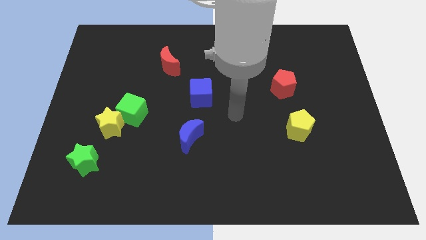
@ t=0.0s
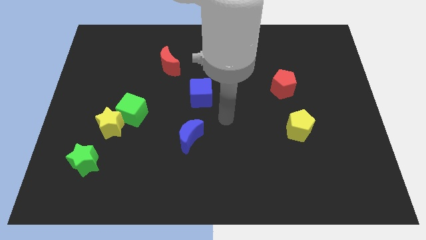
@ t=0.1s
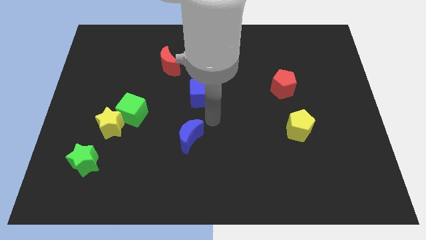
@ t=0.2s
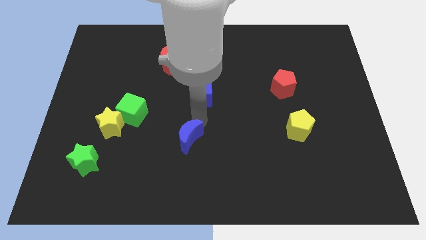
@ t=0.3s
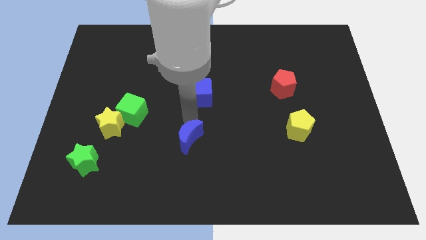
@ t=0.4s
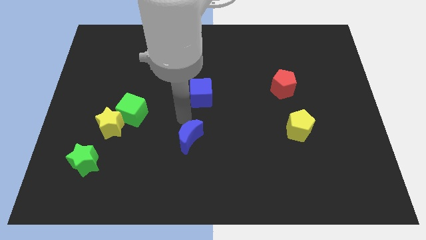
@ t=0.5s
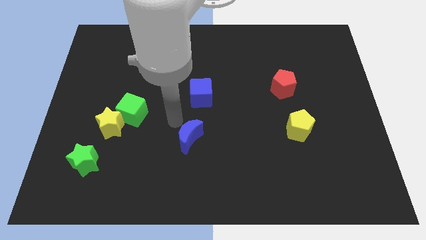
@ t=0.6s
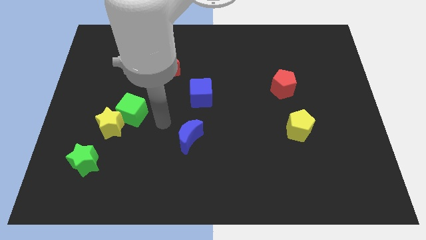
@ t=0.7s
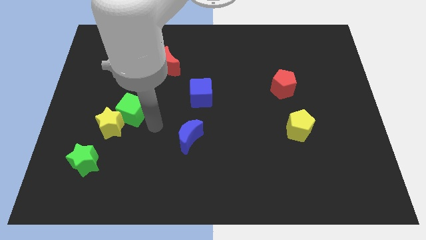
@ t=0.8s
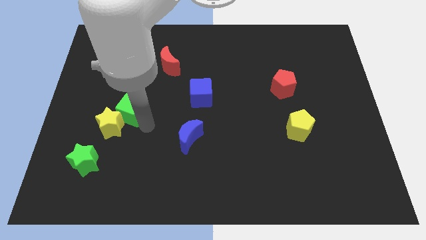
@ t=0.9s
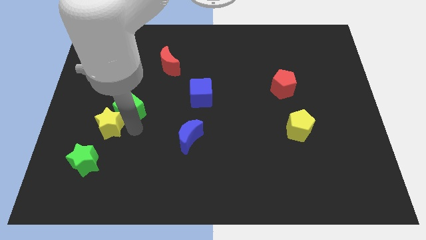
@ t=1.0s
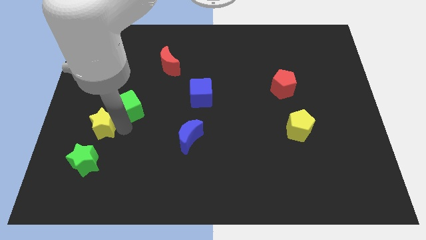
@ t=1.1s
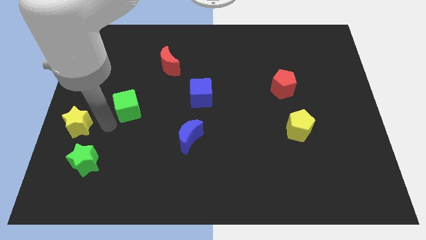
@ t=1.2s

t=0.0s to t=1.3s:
pull the green cube apart from the yellow star

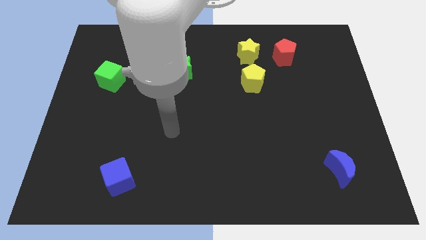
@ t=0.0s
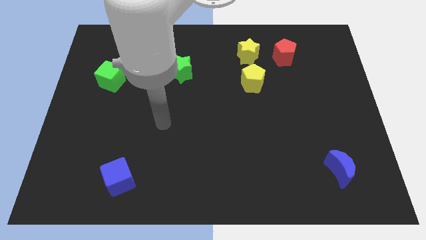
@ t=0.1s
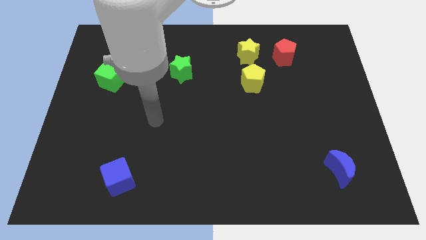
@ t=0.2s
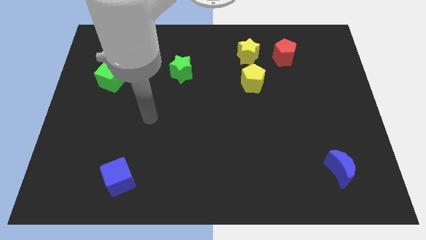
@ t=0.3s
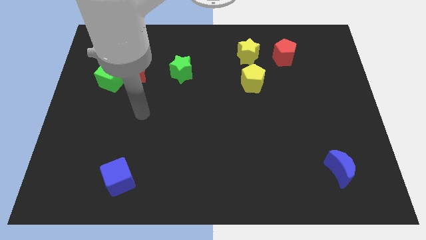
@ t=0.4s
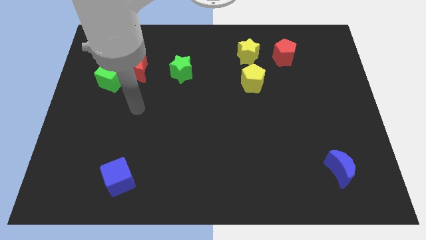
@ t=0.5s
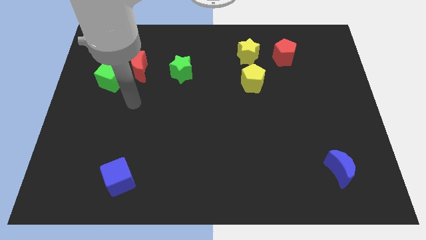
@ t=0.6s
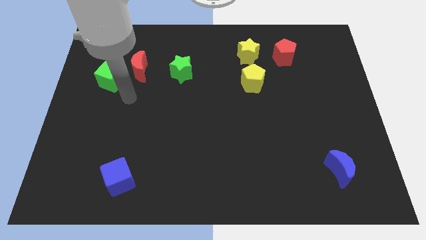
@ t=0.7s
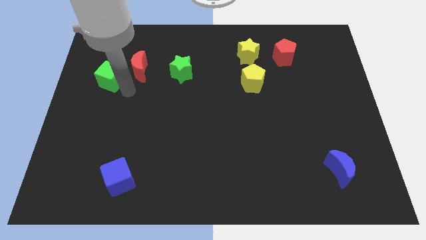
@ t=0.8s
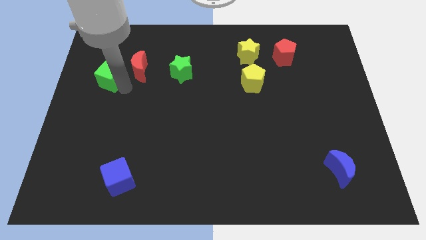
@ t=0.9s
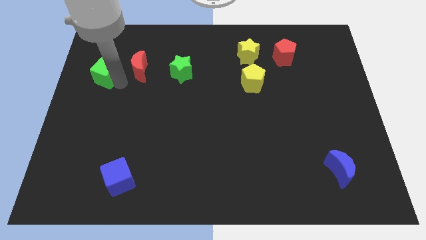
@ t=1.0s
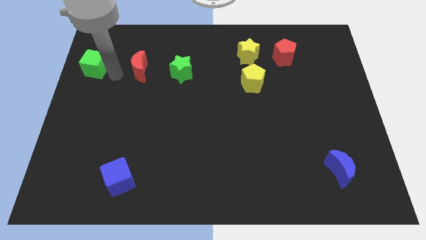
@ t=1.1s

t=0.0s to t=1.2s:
move the red moon away from the green cube

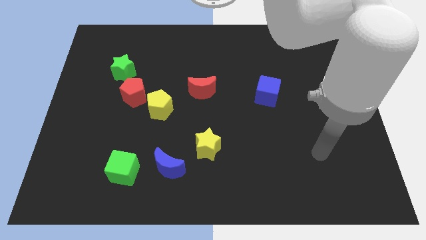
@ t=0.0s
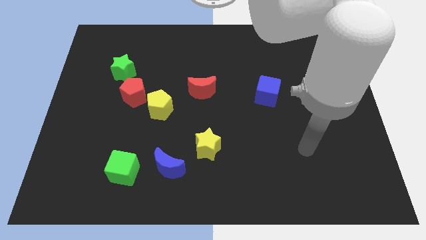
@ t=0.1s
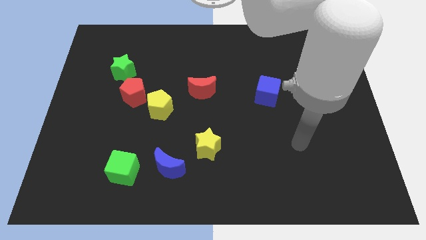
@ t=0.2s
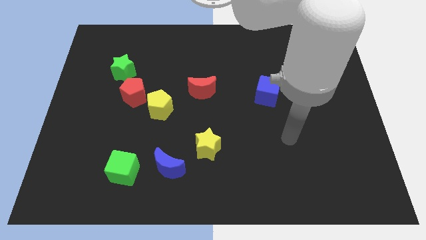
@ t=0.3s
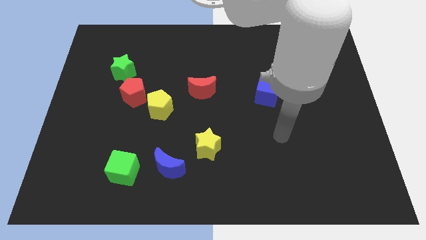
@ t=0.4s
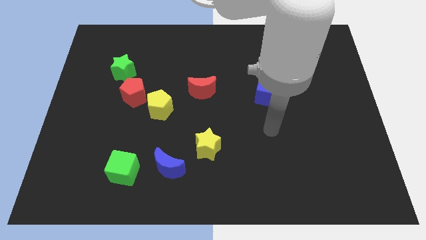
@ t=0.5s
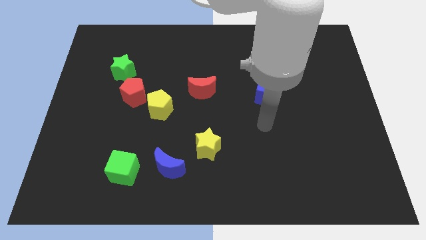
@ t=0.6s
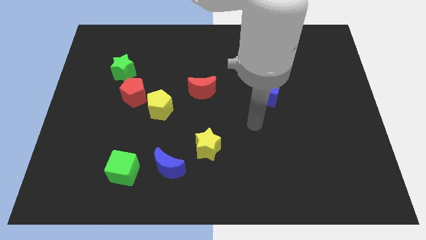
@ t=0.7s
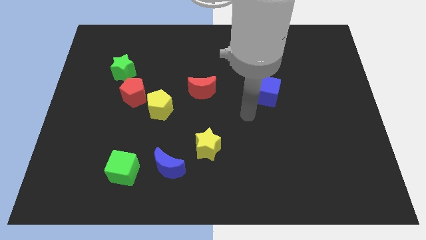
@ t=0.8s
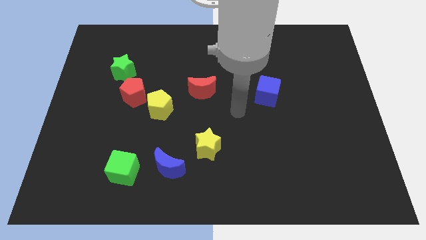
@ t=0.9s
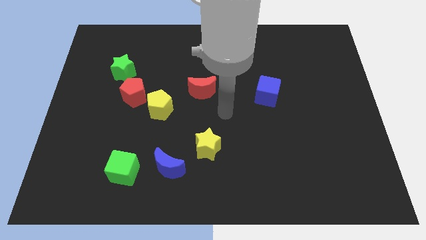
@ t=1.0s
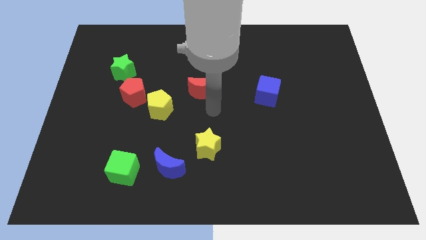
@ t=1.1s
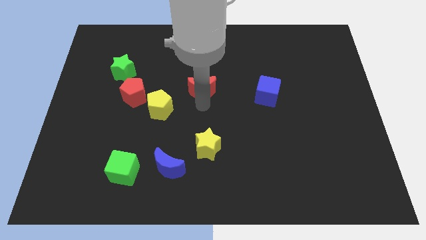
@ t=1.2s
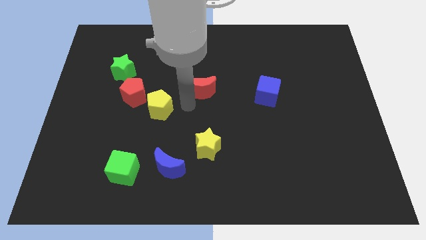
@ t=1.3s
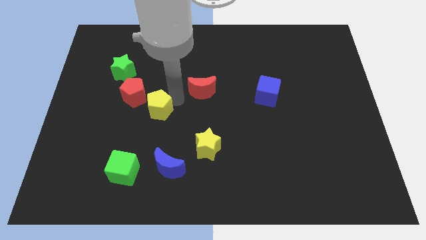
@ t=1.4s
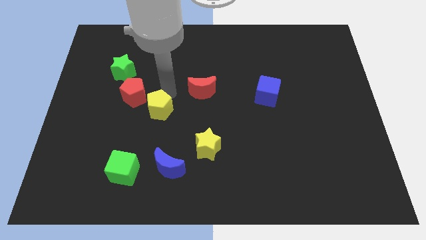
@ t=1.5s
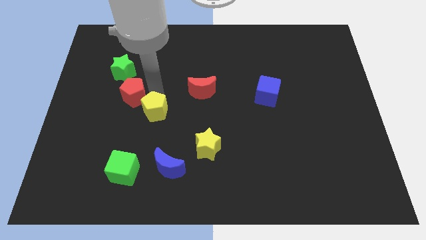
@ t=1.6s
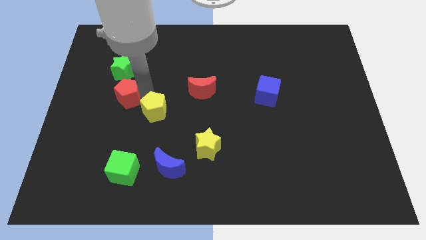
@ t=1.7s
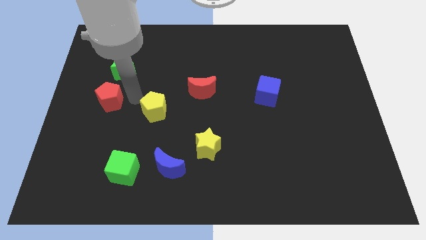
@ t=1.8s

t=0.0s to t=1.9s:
pull the yellow pentagon apart from the red pentagon

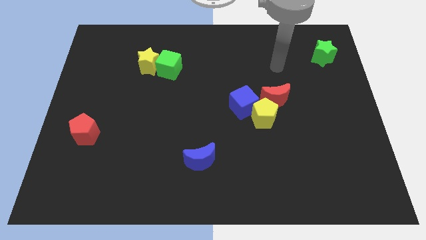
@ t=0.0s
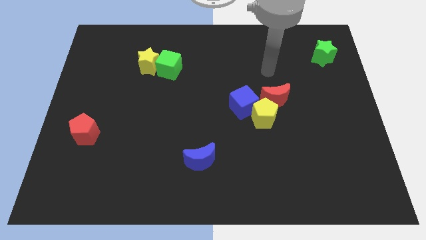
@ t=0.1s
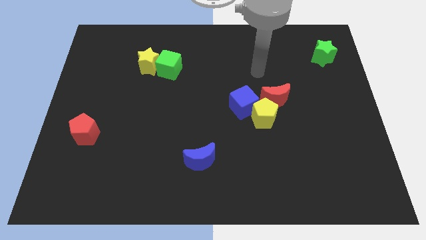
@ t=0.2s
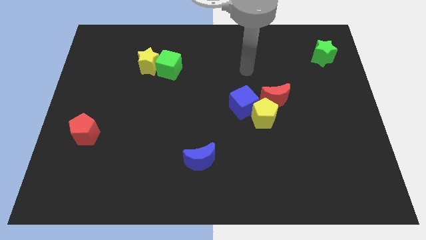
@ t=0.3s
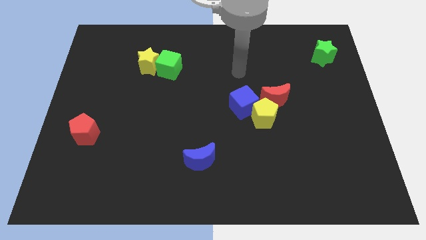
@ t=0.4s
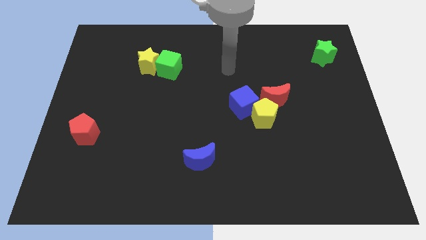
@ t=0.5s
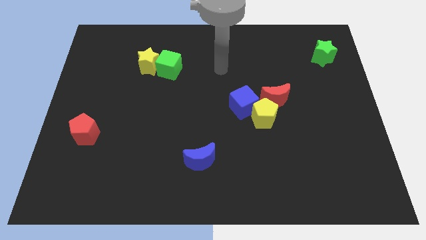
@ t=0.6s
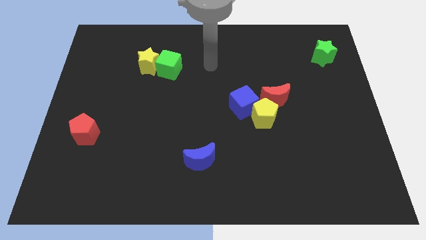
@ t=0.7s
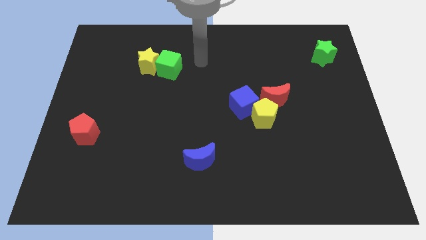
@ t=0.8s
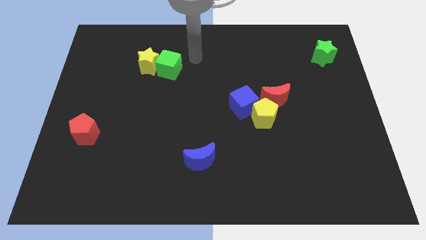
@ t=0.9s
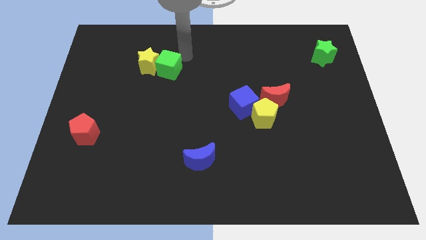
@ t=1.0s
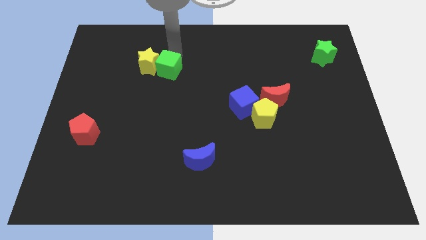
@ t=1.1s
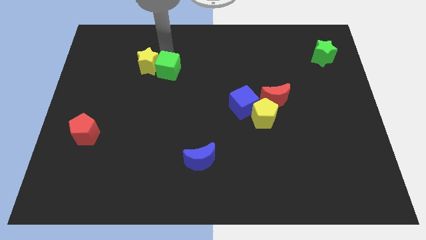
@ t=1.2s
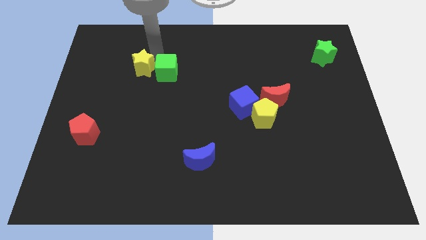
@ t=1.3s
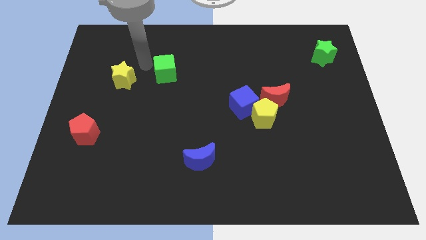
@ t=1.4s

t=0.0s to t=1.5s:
separate the green cube from the yellow star

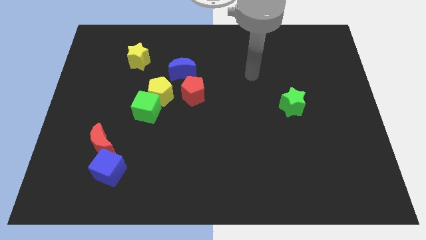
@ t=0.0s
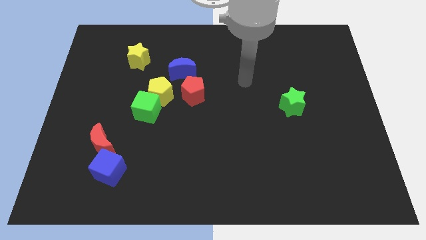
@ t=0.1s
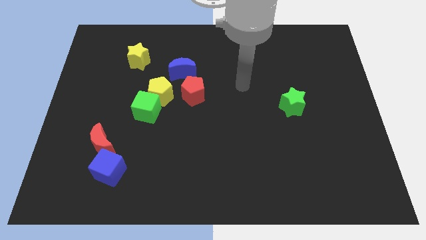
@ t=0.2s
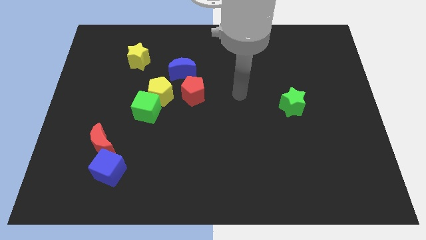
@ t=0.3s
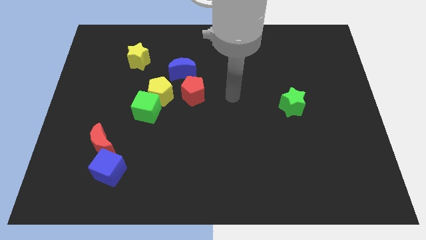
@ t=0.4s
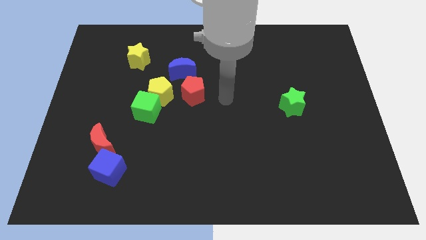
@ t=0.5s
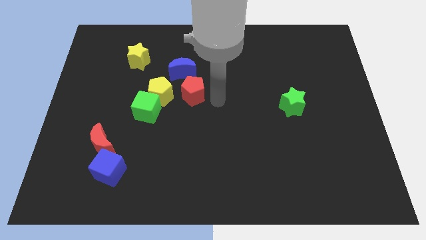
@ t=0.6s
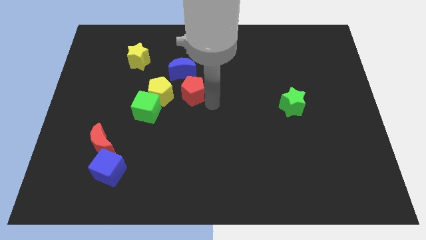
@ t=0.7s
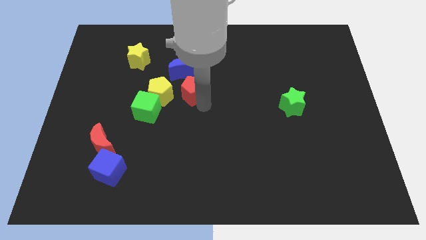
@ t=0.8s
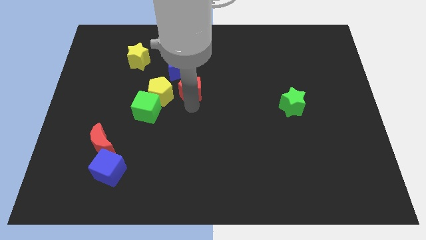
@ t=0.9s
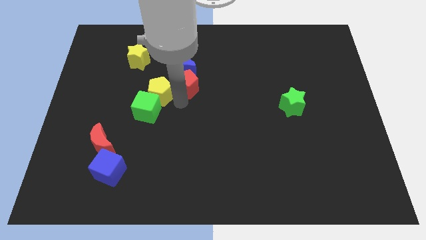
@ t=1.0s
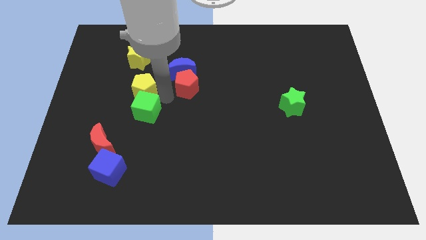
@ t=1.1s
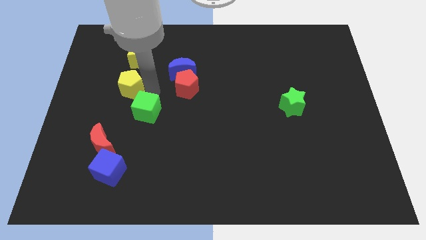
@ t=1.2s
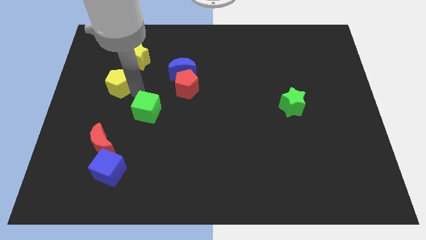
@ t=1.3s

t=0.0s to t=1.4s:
pull the green cube apart from the yellow pentagon

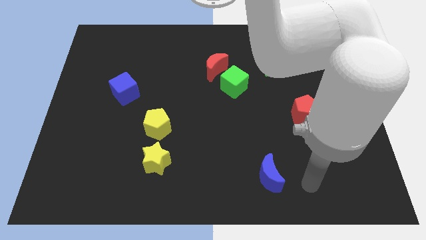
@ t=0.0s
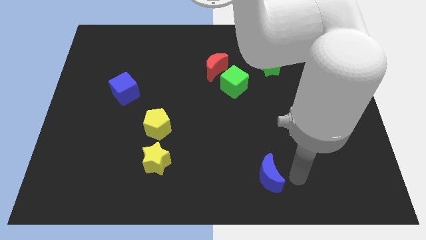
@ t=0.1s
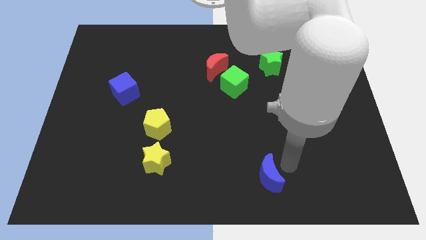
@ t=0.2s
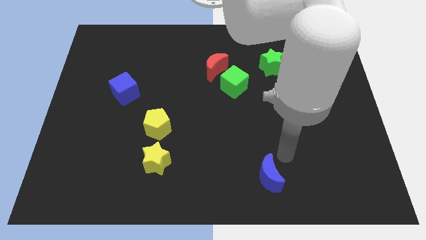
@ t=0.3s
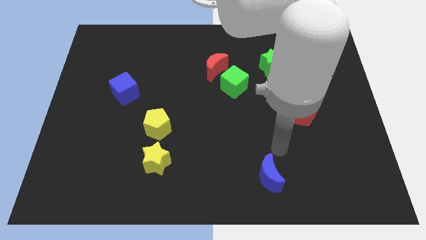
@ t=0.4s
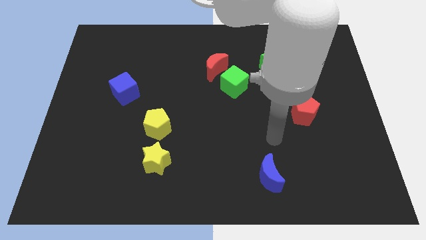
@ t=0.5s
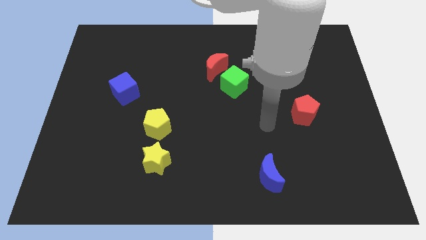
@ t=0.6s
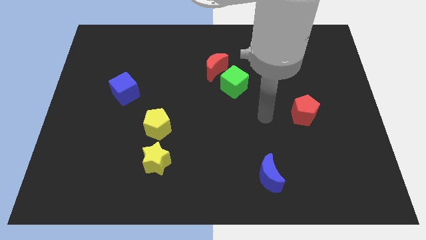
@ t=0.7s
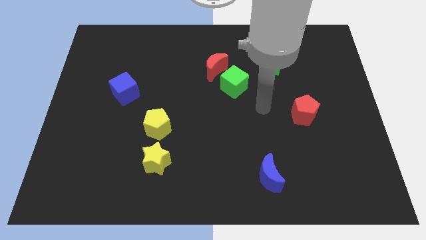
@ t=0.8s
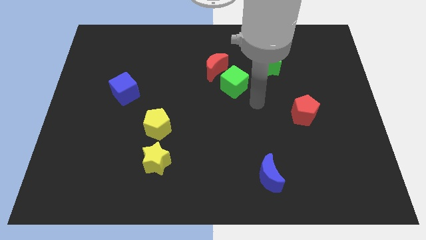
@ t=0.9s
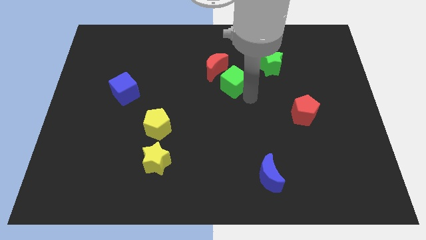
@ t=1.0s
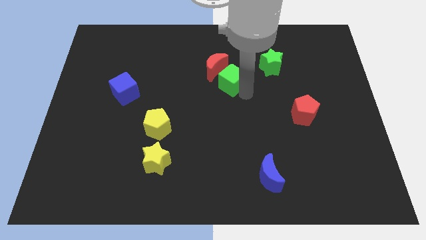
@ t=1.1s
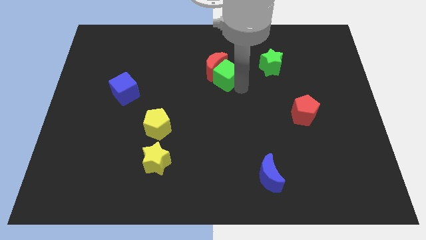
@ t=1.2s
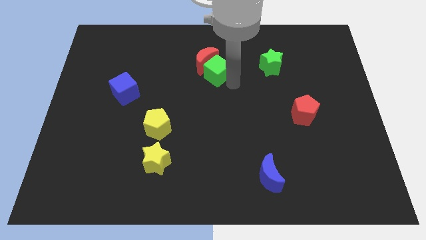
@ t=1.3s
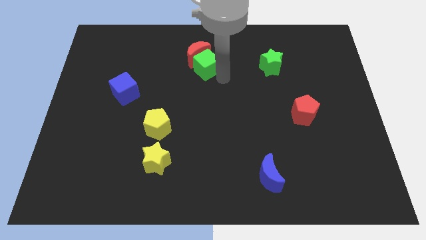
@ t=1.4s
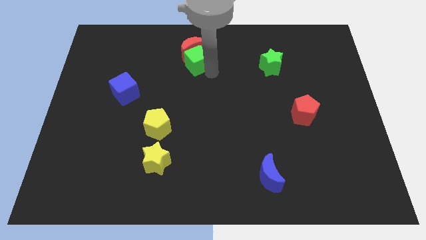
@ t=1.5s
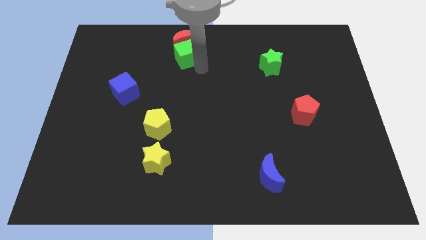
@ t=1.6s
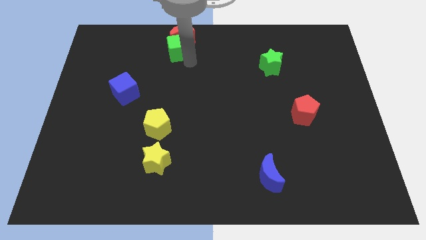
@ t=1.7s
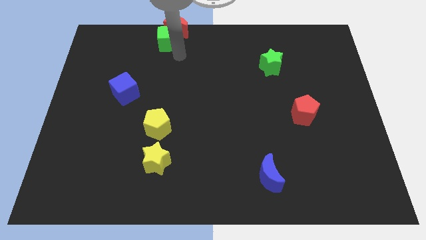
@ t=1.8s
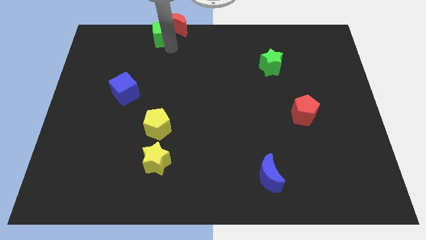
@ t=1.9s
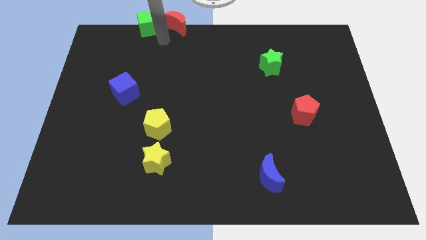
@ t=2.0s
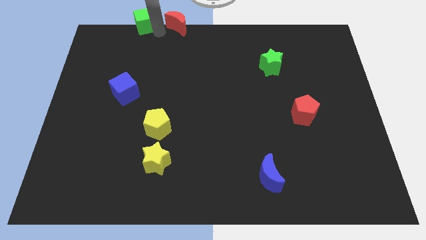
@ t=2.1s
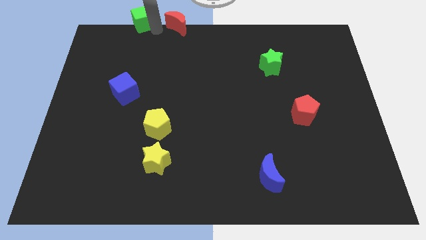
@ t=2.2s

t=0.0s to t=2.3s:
pull the red moon apart from the green cube
